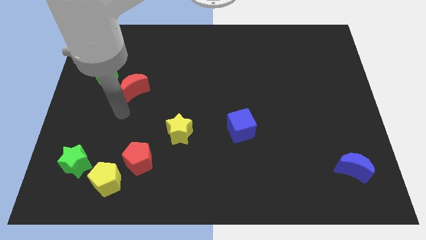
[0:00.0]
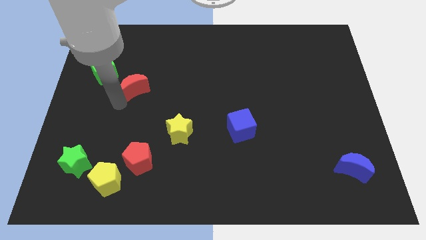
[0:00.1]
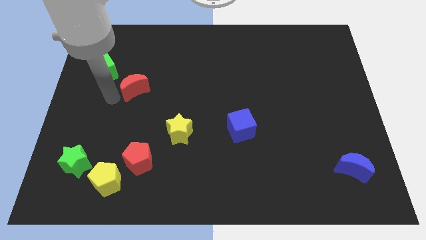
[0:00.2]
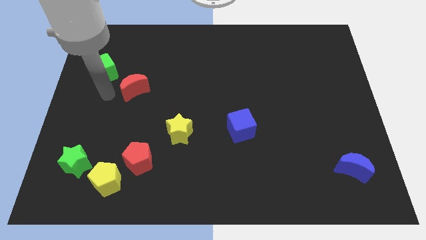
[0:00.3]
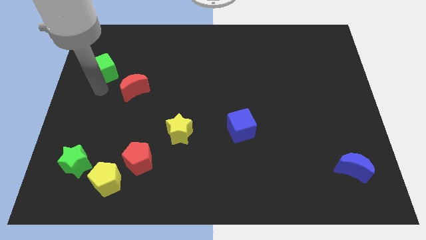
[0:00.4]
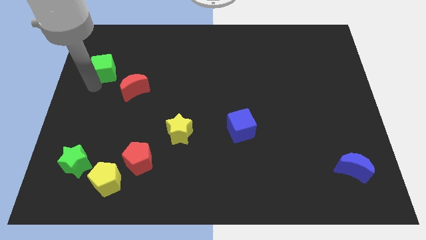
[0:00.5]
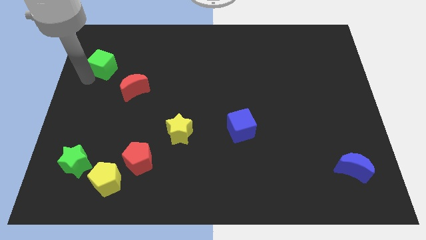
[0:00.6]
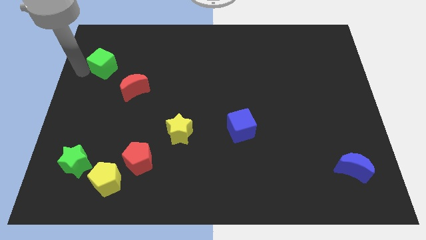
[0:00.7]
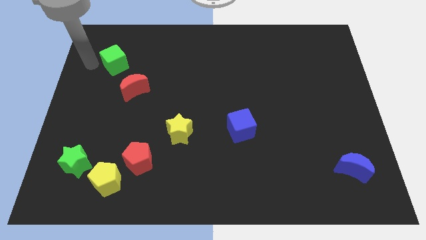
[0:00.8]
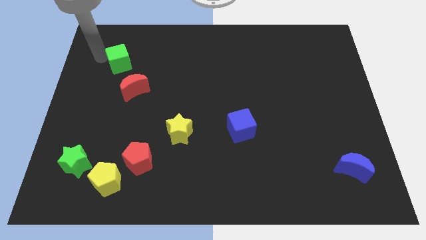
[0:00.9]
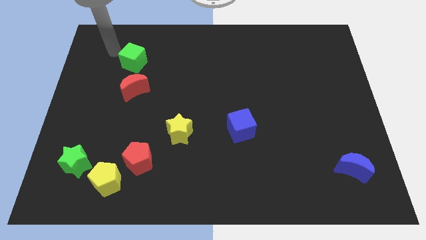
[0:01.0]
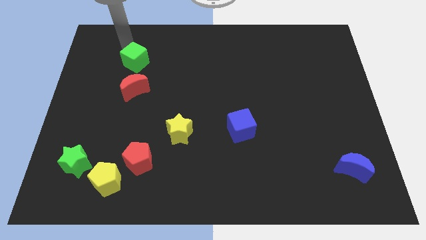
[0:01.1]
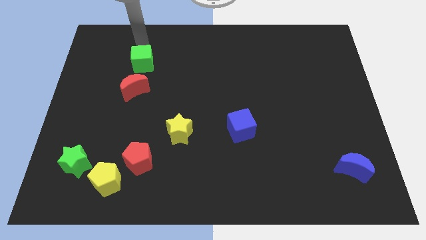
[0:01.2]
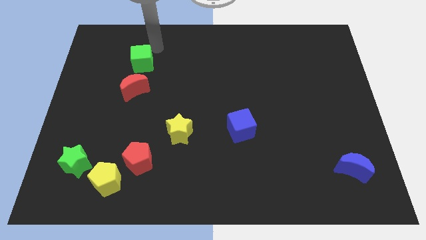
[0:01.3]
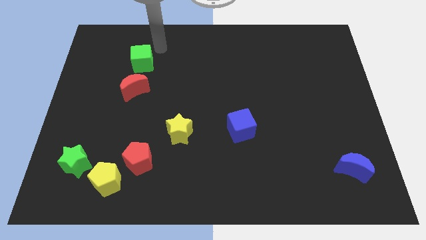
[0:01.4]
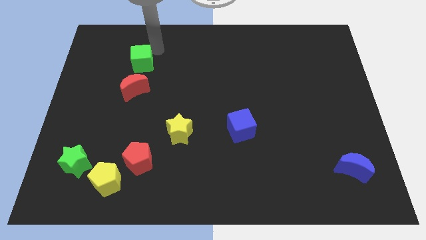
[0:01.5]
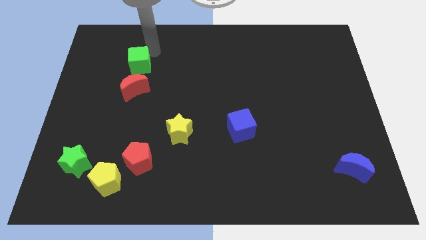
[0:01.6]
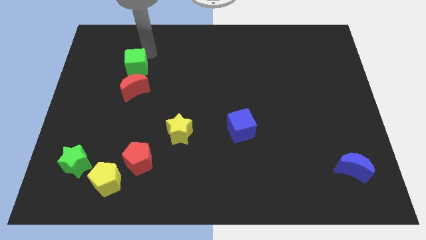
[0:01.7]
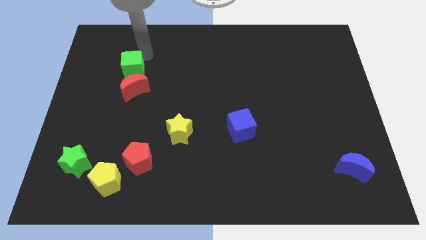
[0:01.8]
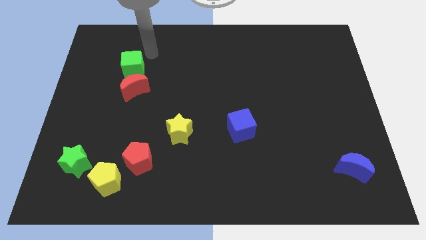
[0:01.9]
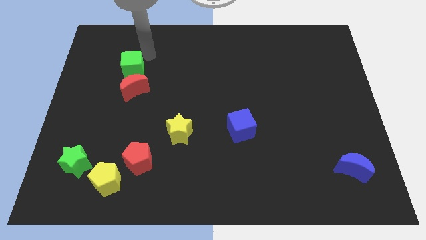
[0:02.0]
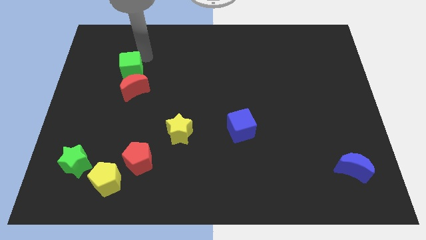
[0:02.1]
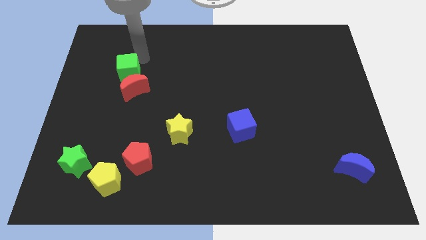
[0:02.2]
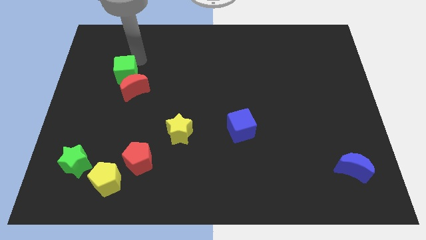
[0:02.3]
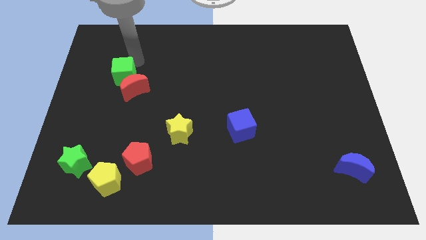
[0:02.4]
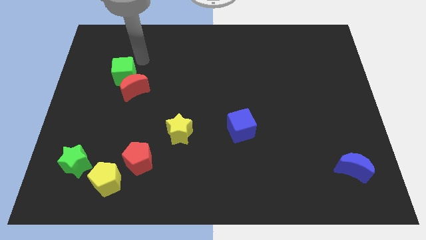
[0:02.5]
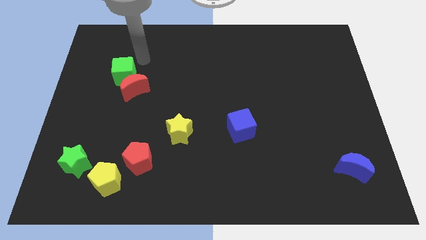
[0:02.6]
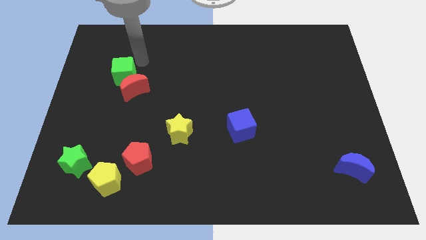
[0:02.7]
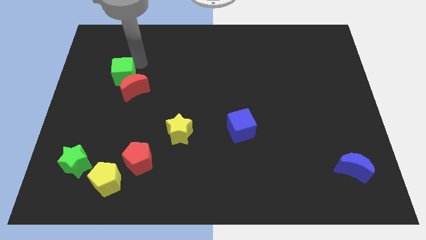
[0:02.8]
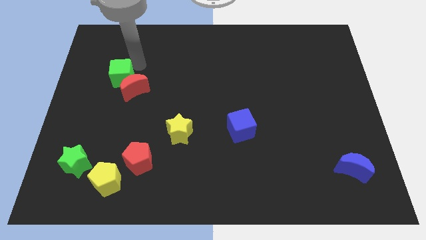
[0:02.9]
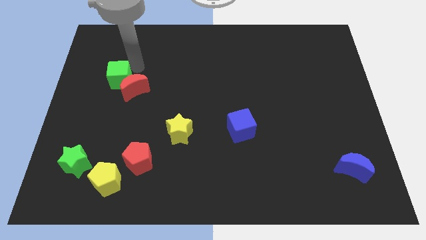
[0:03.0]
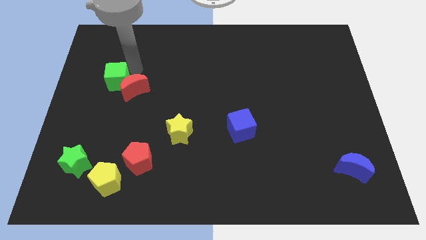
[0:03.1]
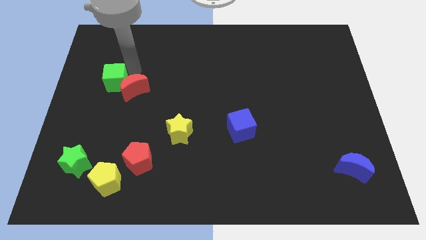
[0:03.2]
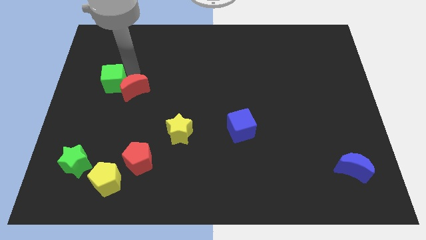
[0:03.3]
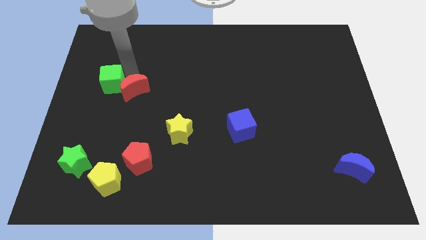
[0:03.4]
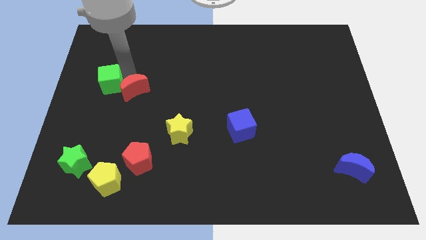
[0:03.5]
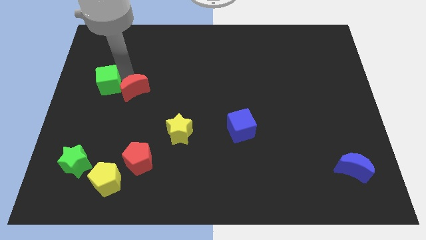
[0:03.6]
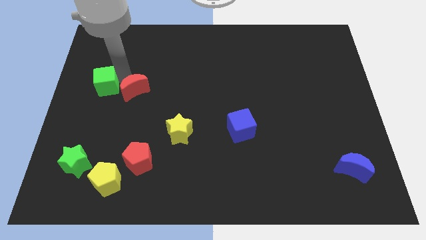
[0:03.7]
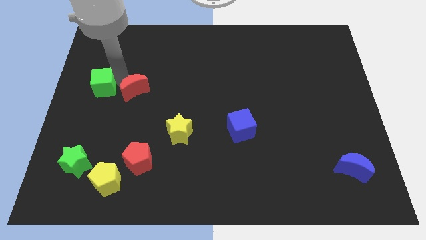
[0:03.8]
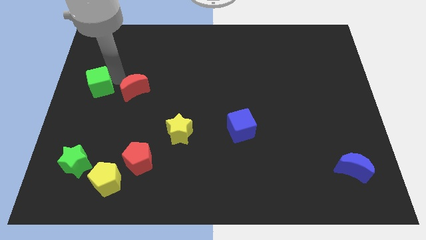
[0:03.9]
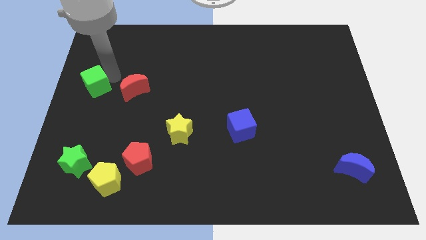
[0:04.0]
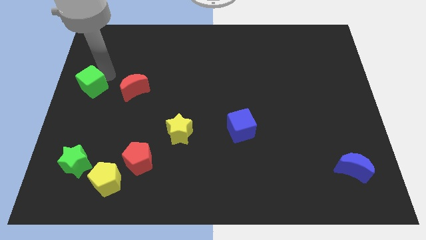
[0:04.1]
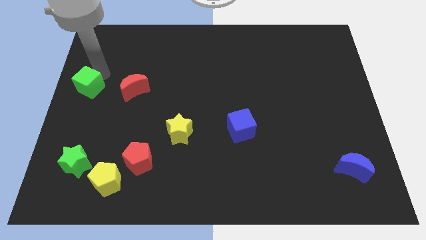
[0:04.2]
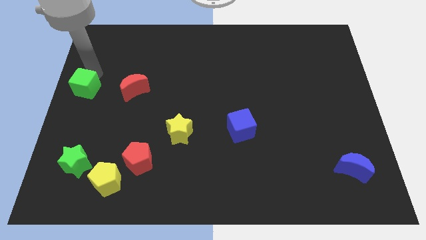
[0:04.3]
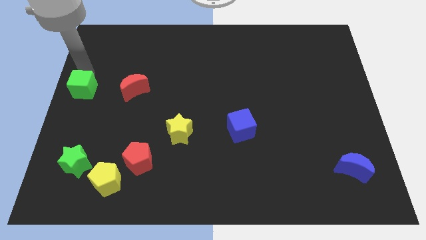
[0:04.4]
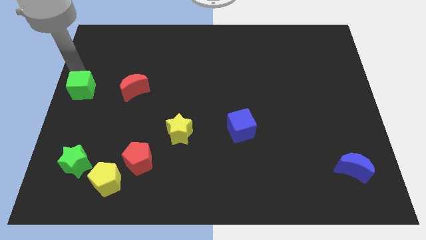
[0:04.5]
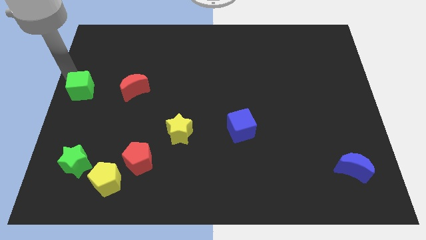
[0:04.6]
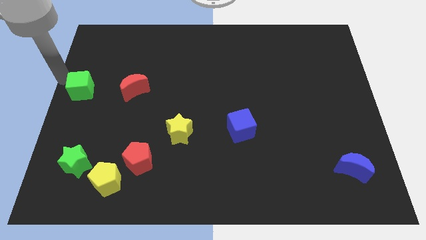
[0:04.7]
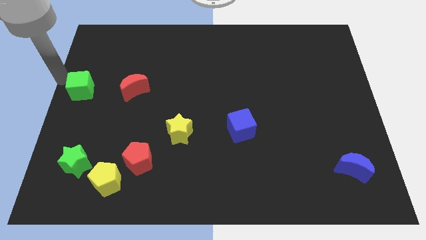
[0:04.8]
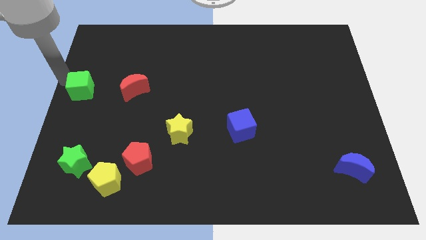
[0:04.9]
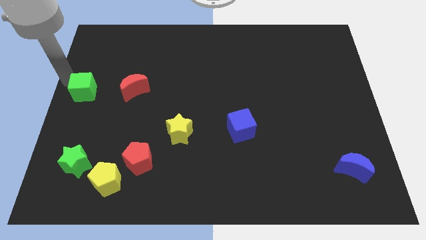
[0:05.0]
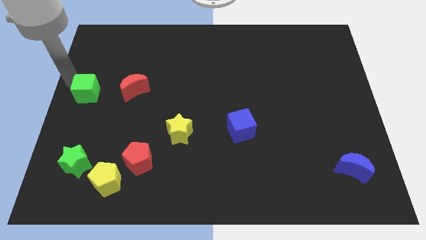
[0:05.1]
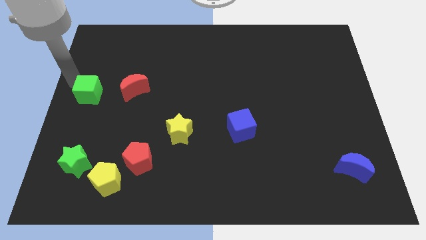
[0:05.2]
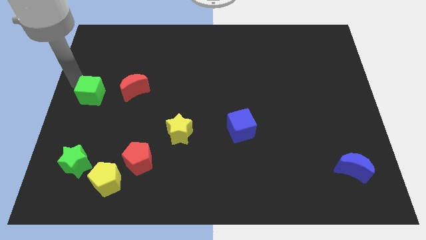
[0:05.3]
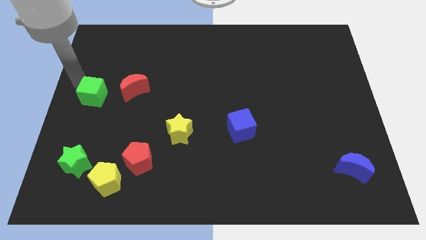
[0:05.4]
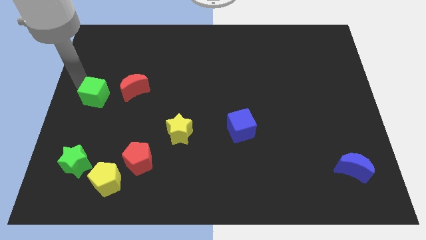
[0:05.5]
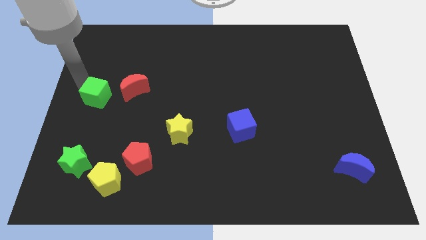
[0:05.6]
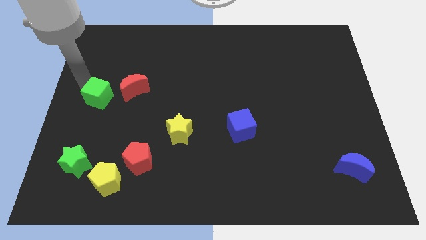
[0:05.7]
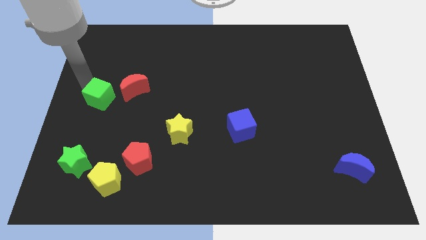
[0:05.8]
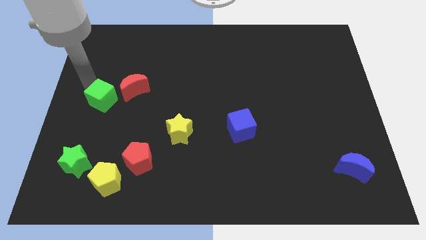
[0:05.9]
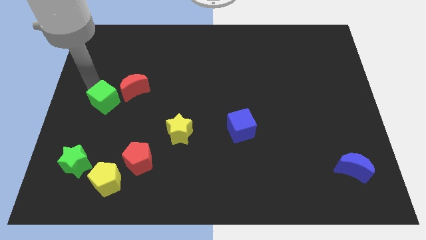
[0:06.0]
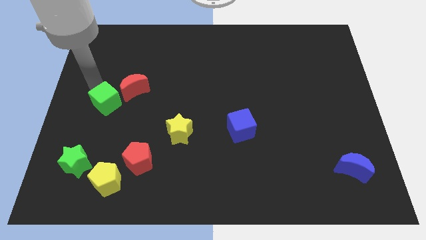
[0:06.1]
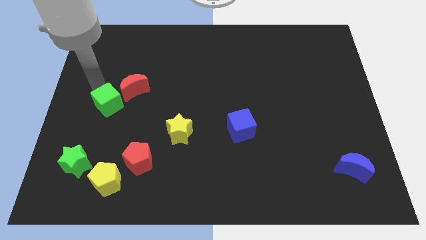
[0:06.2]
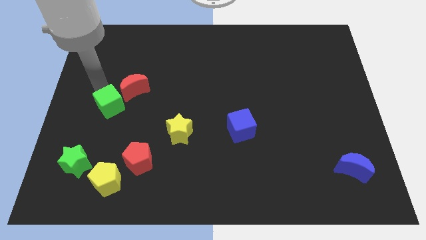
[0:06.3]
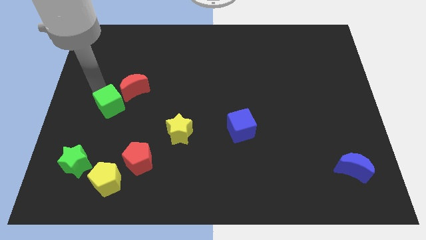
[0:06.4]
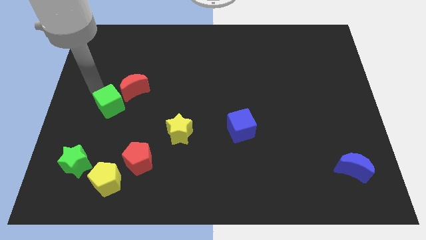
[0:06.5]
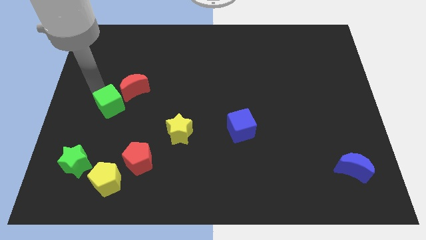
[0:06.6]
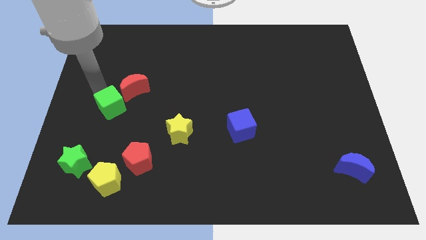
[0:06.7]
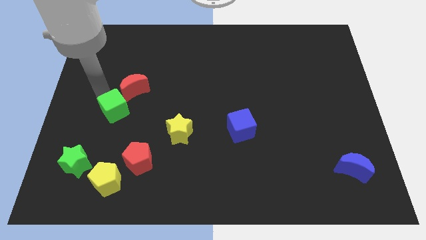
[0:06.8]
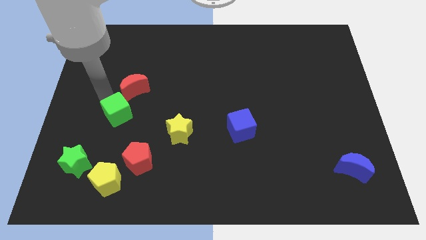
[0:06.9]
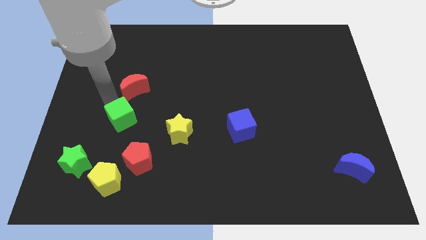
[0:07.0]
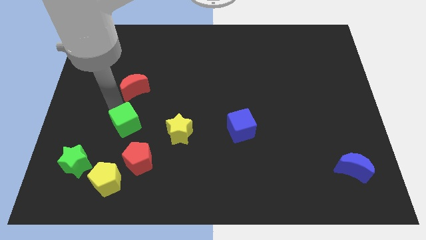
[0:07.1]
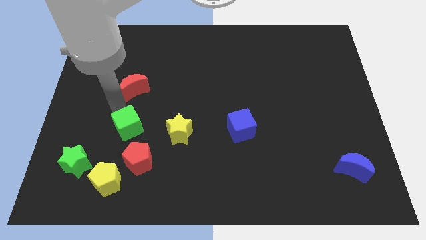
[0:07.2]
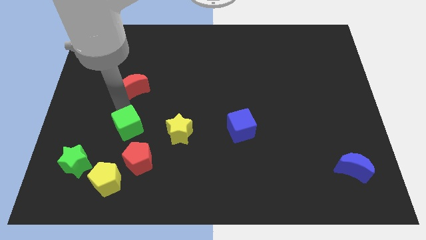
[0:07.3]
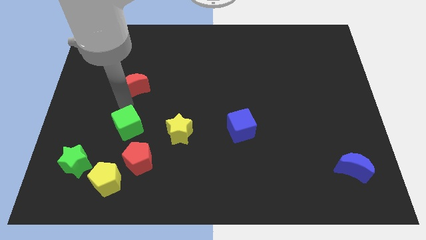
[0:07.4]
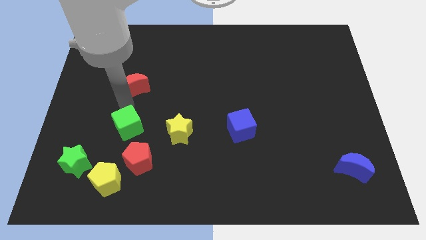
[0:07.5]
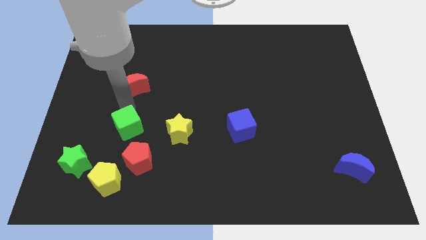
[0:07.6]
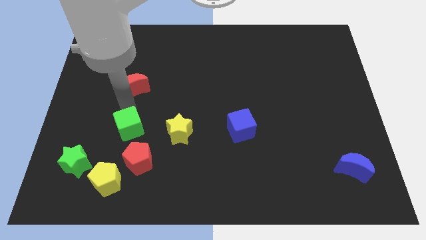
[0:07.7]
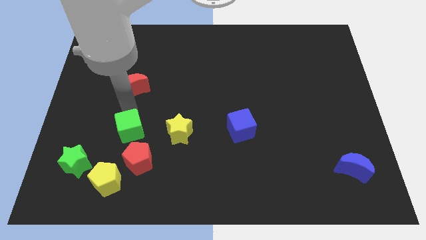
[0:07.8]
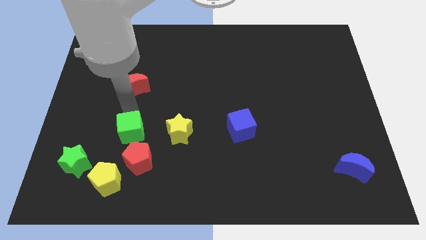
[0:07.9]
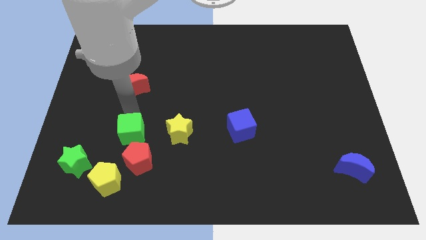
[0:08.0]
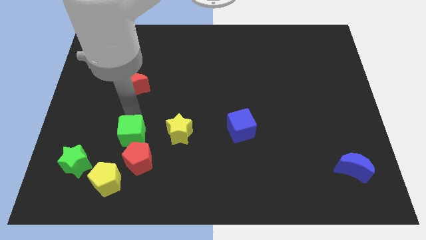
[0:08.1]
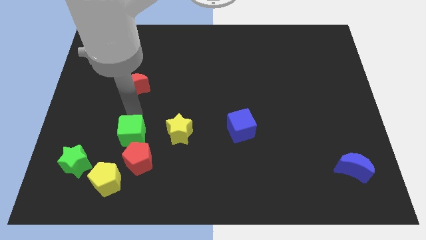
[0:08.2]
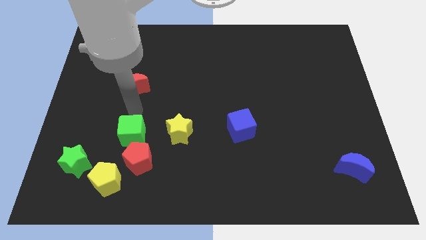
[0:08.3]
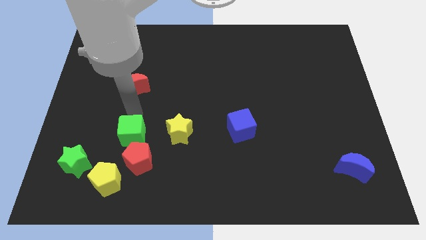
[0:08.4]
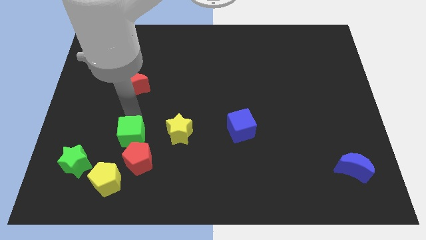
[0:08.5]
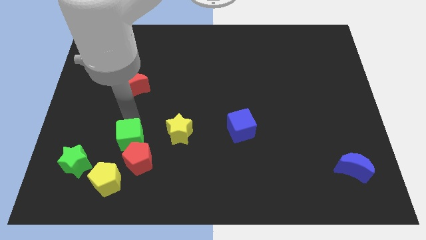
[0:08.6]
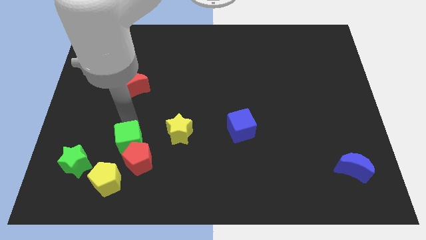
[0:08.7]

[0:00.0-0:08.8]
move the green cube to the red pentagon
